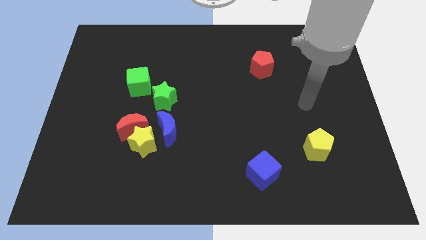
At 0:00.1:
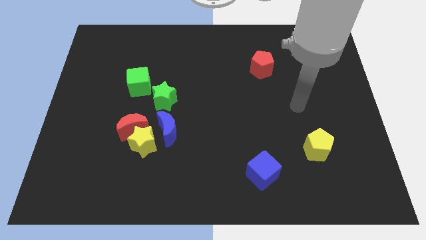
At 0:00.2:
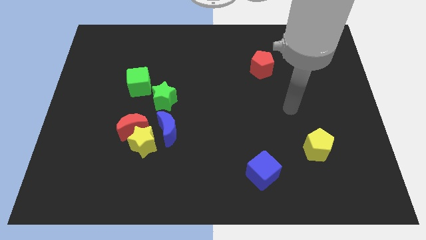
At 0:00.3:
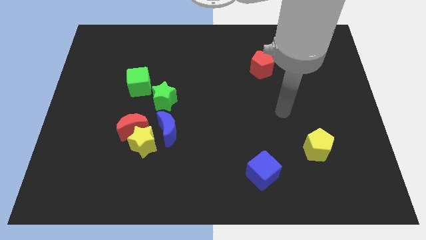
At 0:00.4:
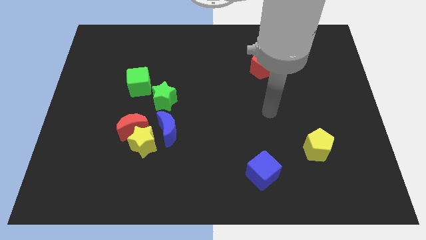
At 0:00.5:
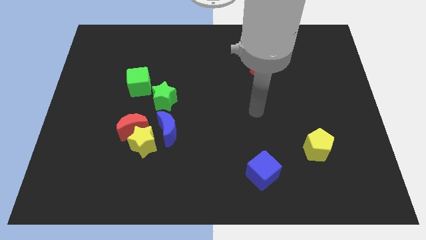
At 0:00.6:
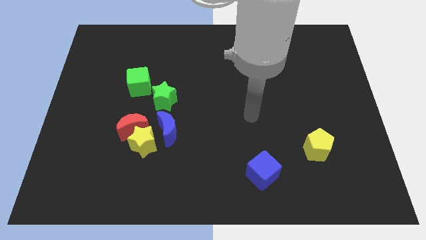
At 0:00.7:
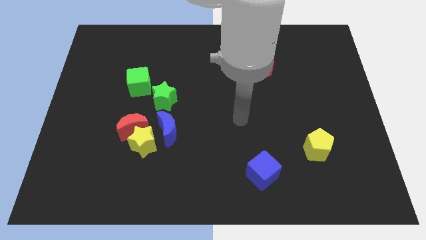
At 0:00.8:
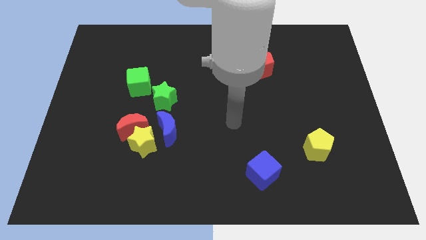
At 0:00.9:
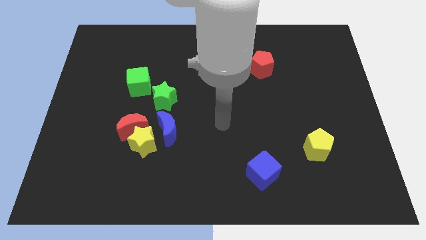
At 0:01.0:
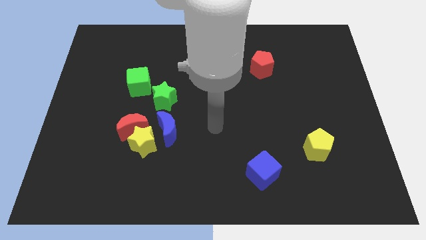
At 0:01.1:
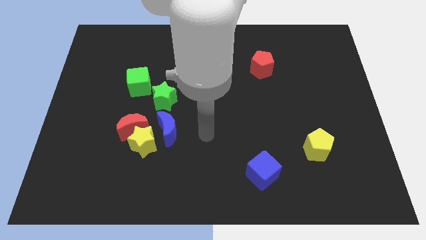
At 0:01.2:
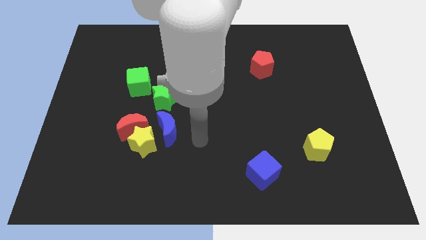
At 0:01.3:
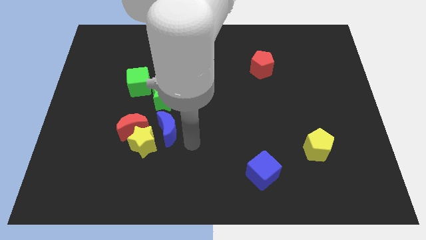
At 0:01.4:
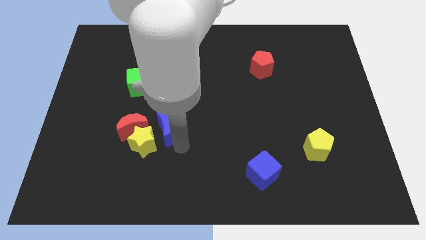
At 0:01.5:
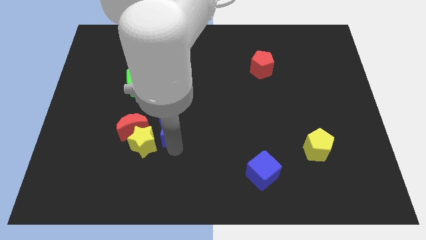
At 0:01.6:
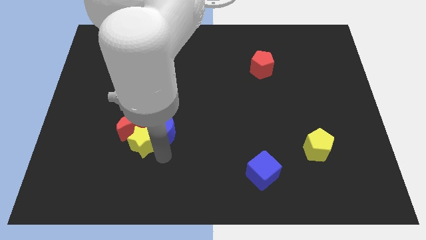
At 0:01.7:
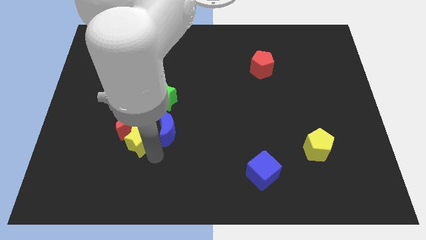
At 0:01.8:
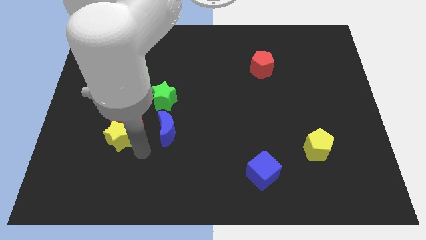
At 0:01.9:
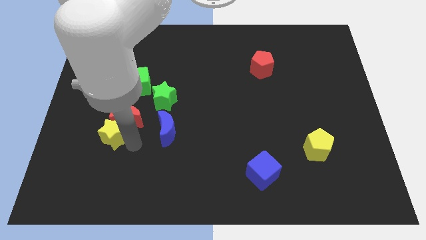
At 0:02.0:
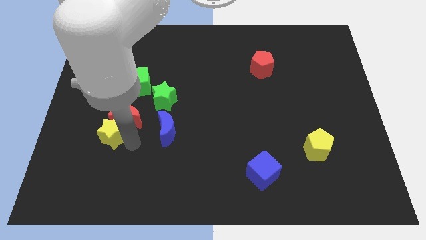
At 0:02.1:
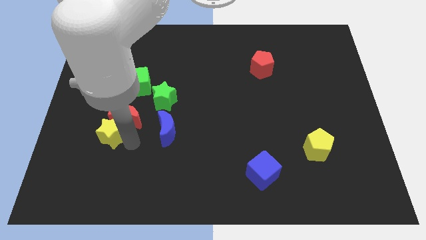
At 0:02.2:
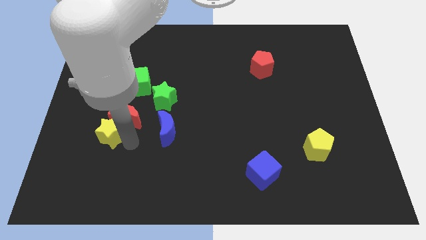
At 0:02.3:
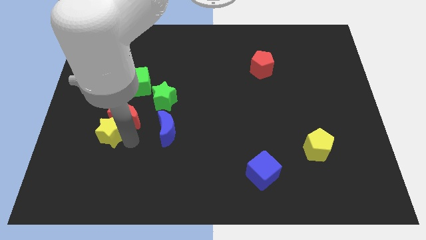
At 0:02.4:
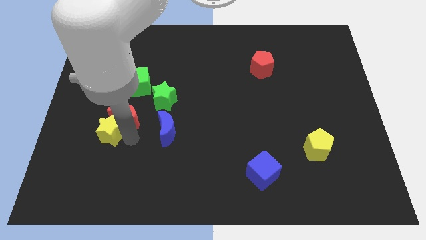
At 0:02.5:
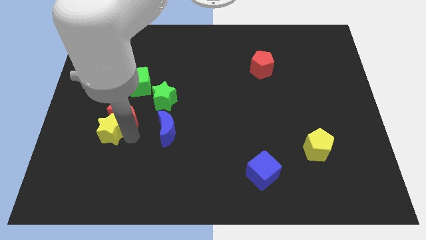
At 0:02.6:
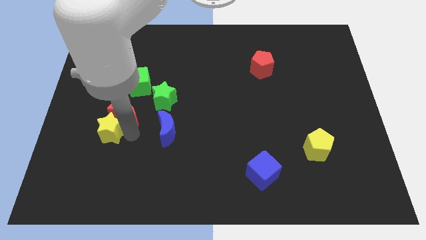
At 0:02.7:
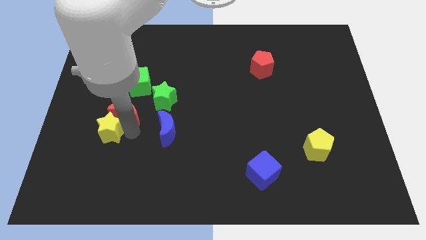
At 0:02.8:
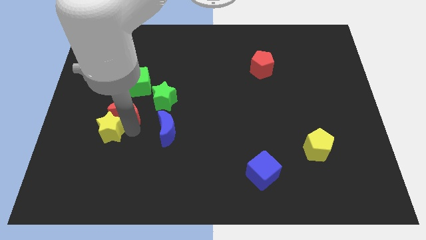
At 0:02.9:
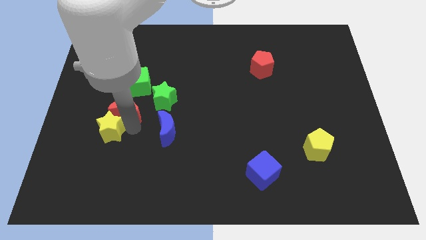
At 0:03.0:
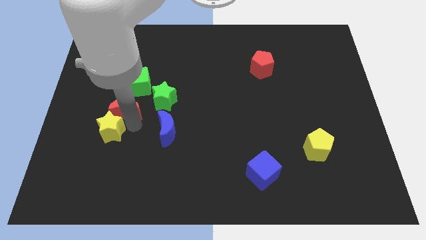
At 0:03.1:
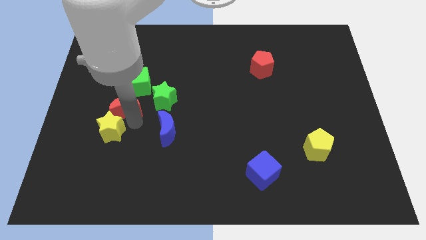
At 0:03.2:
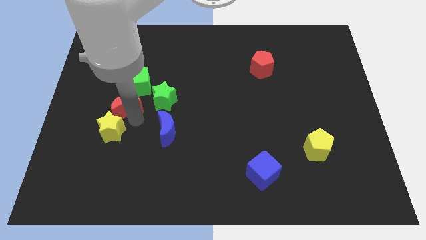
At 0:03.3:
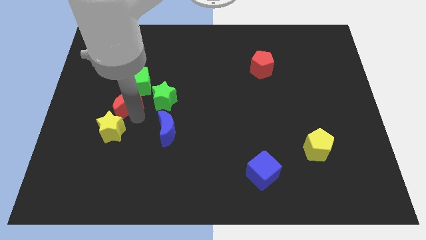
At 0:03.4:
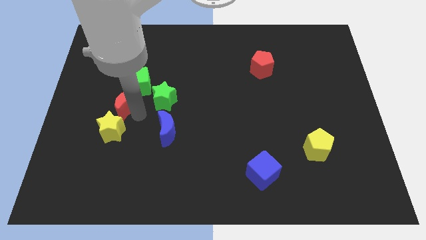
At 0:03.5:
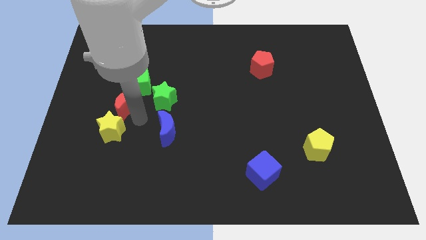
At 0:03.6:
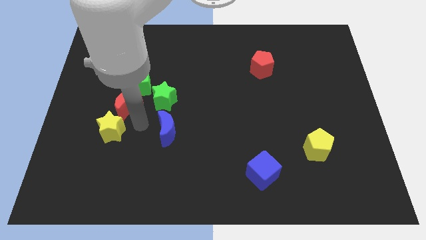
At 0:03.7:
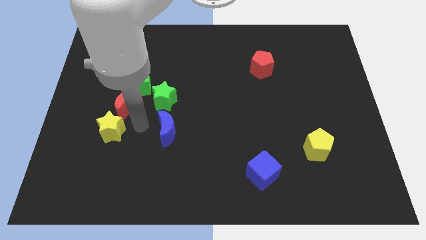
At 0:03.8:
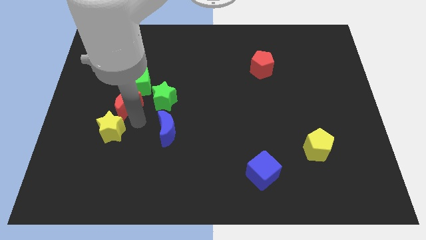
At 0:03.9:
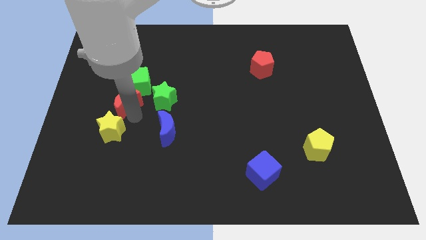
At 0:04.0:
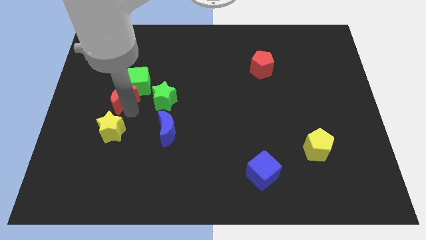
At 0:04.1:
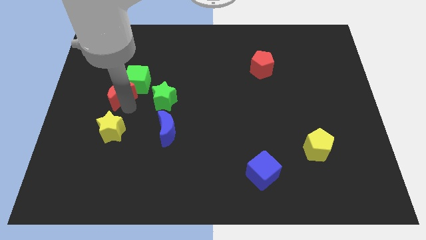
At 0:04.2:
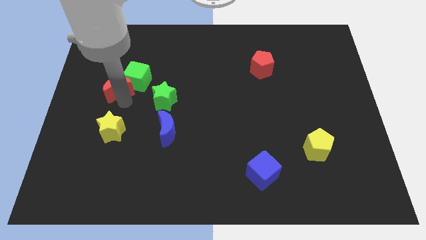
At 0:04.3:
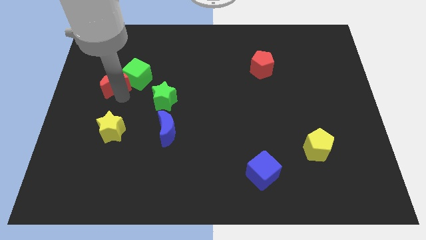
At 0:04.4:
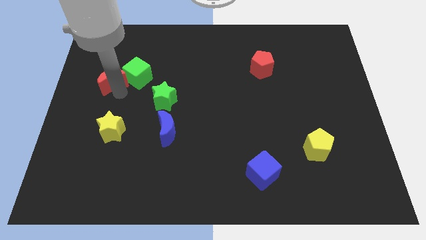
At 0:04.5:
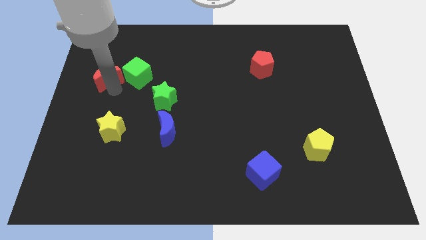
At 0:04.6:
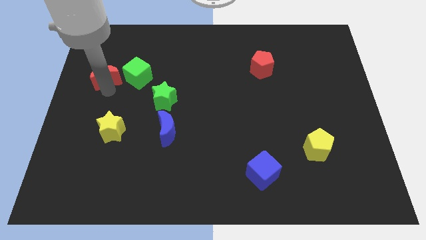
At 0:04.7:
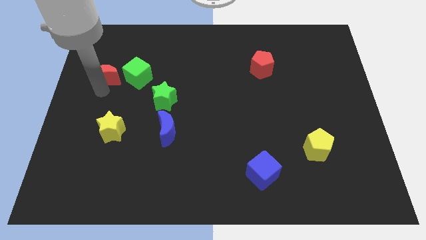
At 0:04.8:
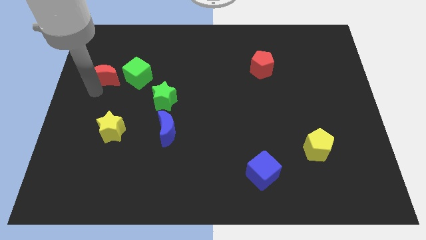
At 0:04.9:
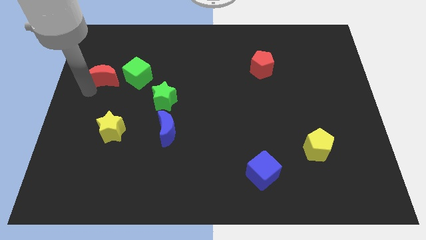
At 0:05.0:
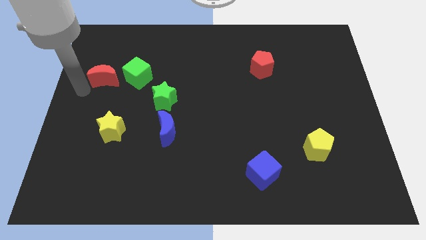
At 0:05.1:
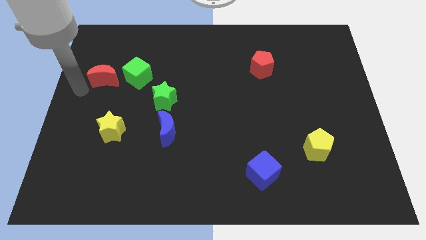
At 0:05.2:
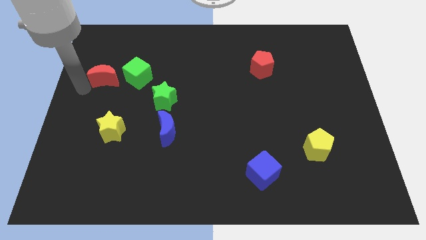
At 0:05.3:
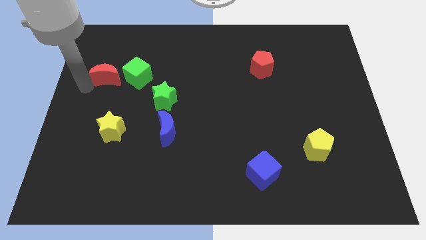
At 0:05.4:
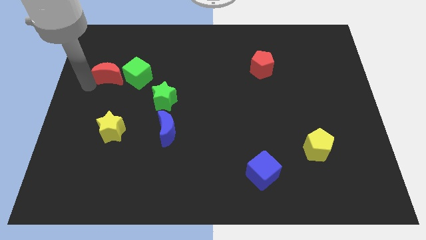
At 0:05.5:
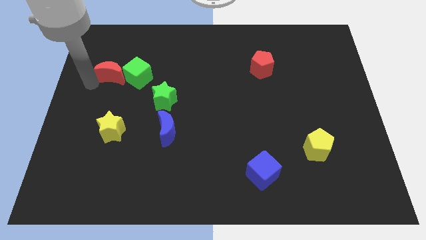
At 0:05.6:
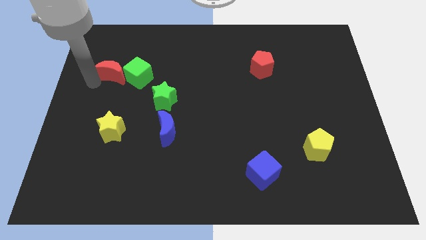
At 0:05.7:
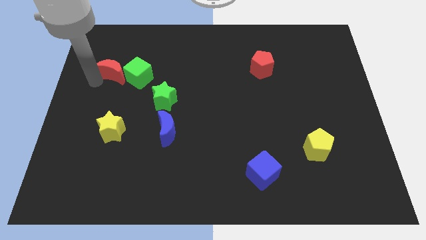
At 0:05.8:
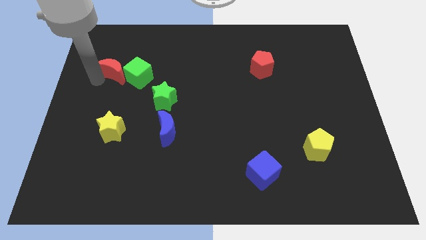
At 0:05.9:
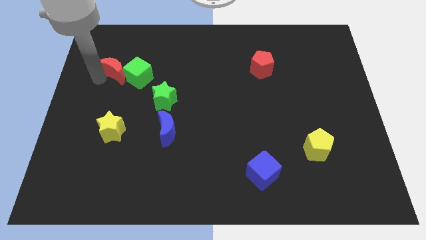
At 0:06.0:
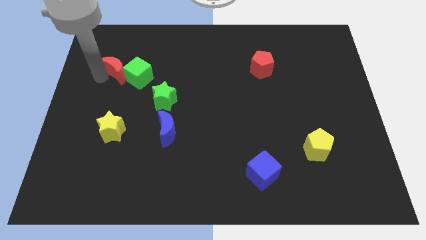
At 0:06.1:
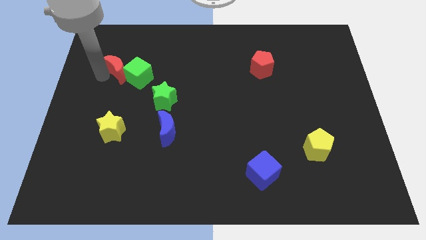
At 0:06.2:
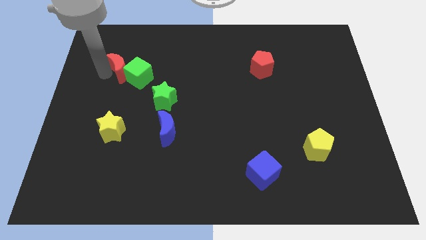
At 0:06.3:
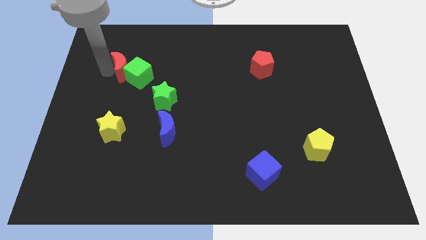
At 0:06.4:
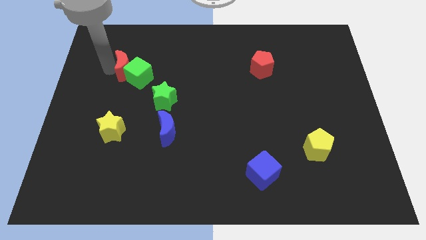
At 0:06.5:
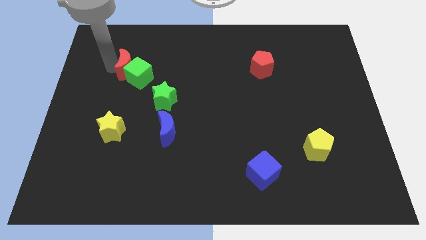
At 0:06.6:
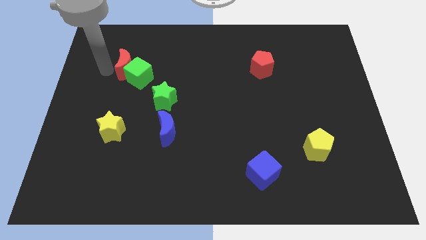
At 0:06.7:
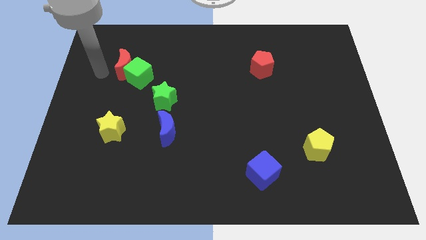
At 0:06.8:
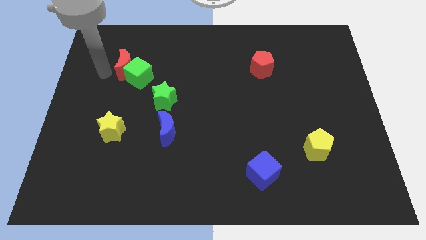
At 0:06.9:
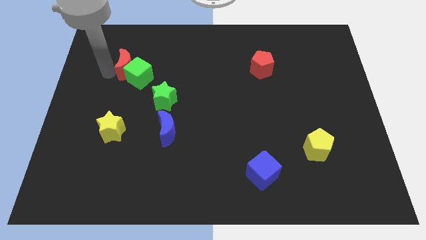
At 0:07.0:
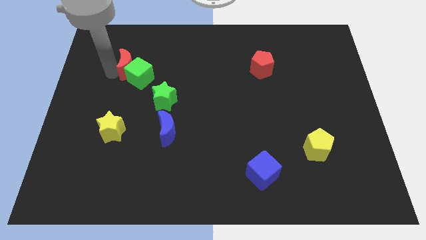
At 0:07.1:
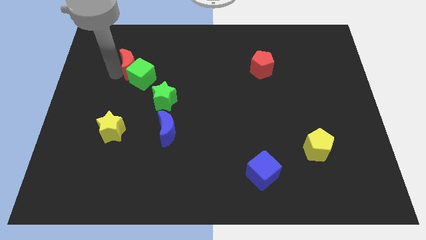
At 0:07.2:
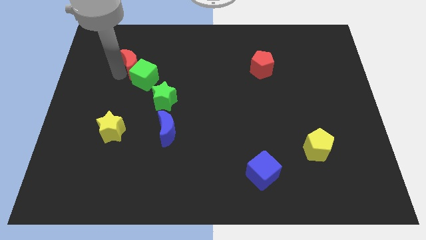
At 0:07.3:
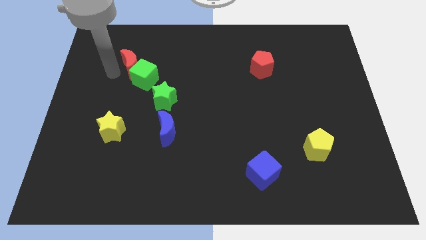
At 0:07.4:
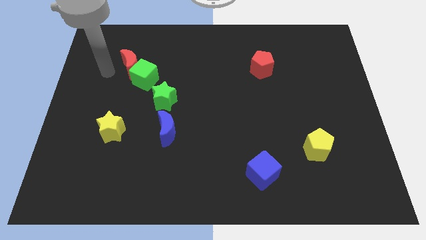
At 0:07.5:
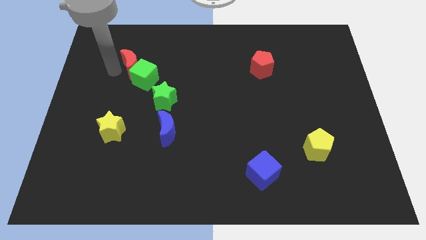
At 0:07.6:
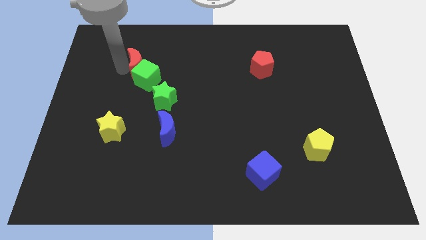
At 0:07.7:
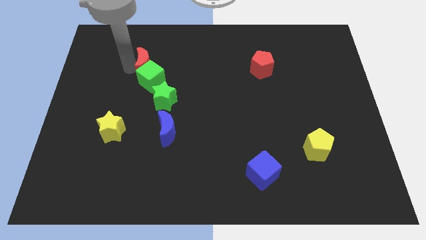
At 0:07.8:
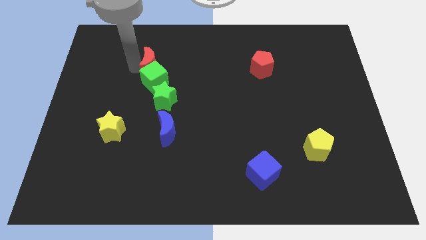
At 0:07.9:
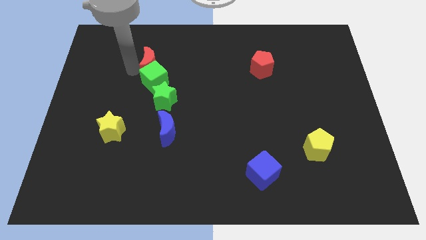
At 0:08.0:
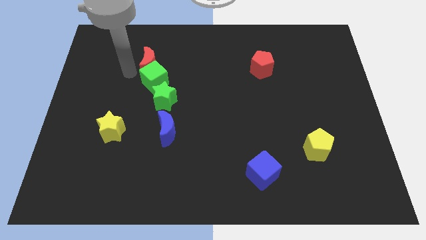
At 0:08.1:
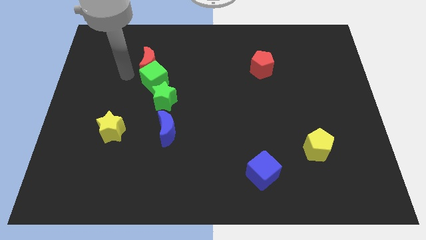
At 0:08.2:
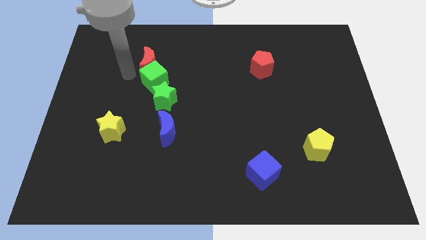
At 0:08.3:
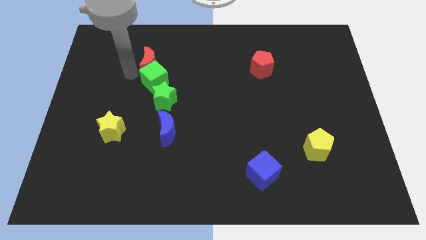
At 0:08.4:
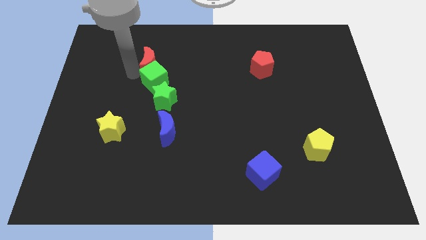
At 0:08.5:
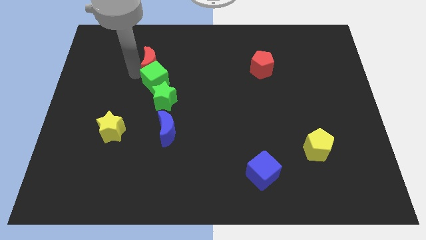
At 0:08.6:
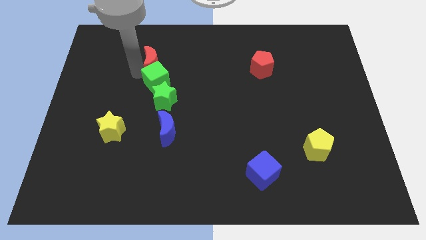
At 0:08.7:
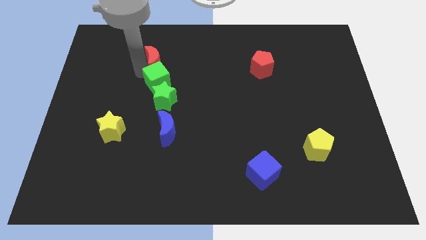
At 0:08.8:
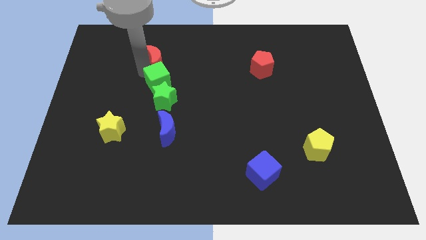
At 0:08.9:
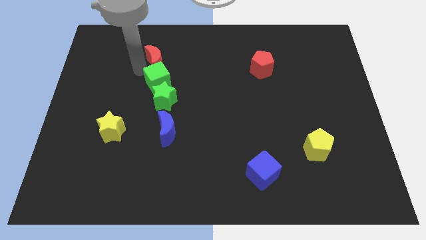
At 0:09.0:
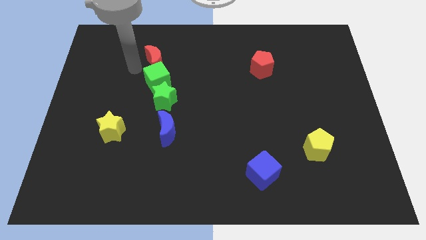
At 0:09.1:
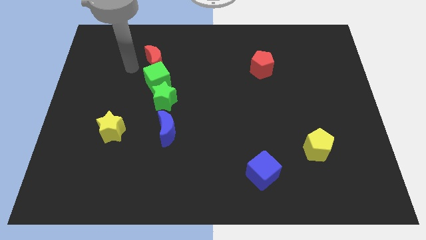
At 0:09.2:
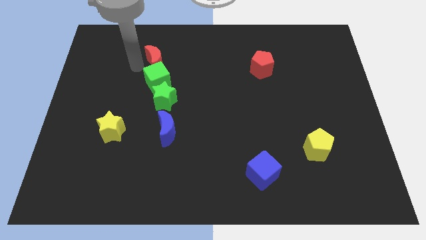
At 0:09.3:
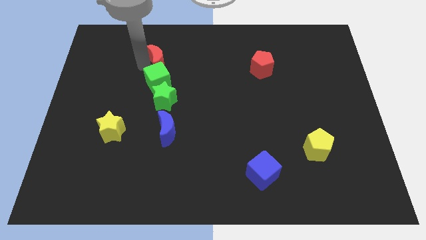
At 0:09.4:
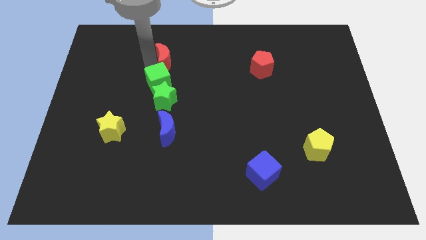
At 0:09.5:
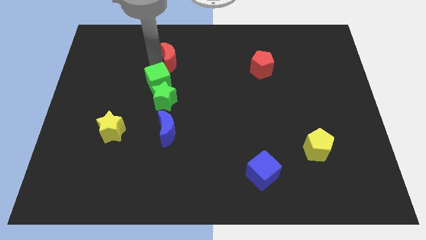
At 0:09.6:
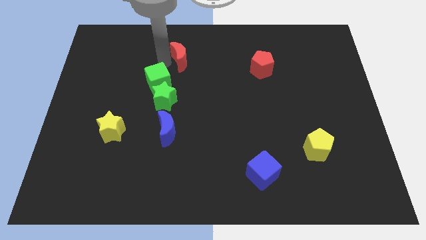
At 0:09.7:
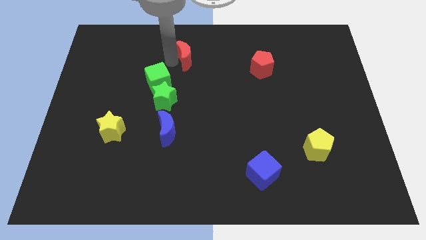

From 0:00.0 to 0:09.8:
slide the red moon upwards and right diagonally
